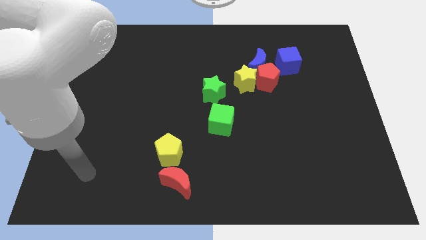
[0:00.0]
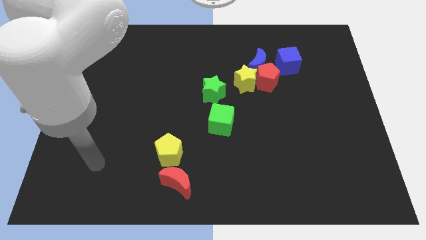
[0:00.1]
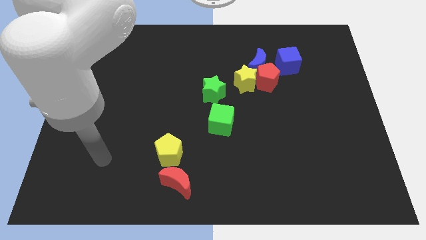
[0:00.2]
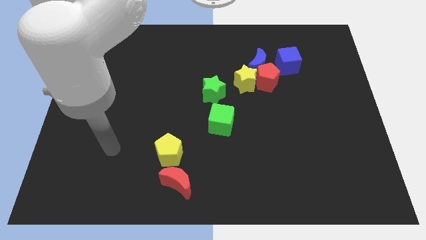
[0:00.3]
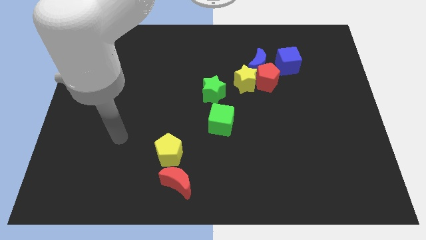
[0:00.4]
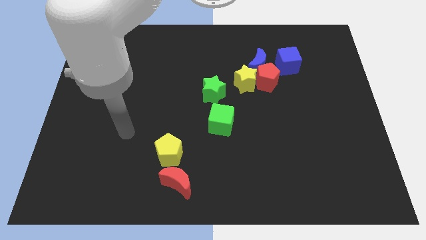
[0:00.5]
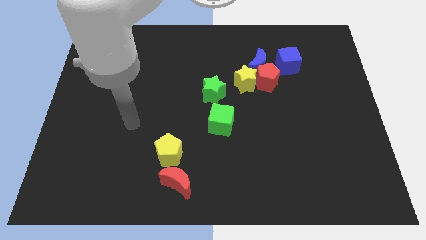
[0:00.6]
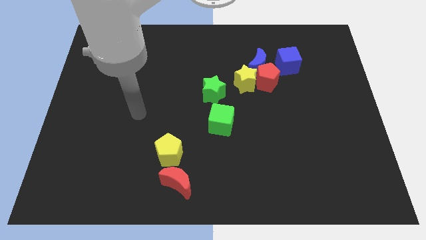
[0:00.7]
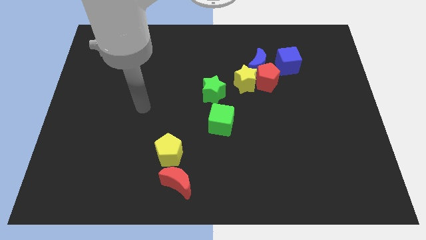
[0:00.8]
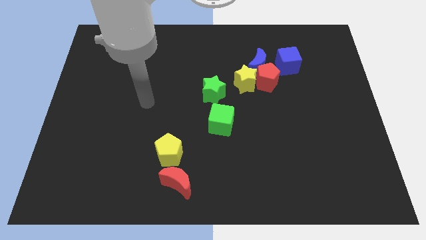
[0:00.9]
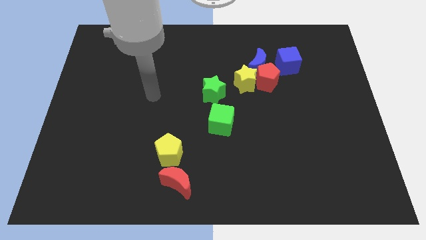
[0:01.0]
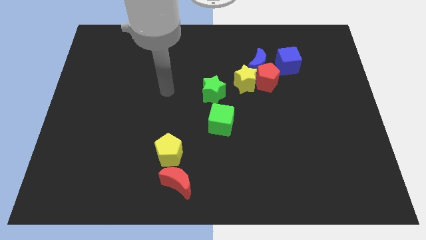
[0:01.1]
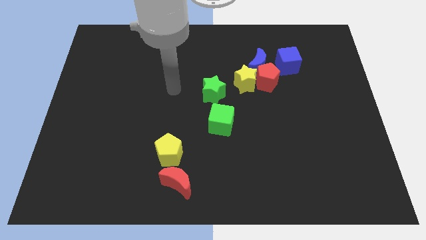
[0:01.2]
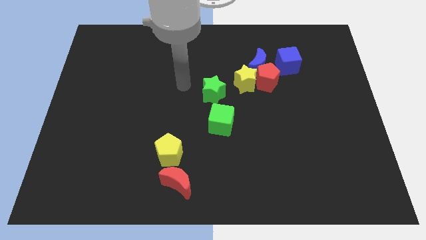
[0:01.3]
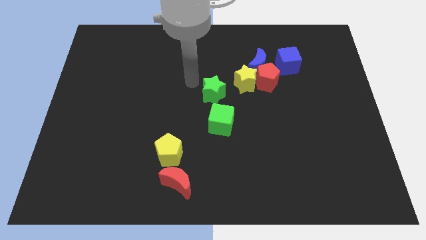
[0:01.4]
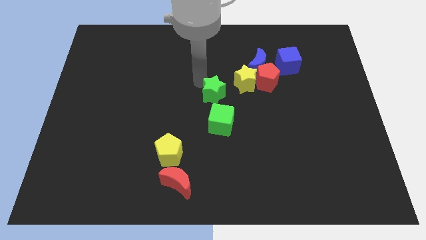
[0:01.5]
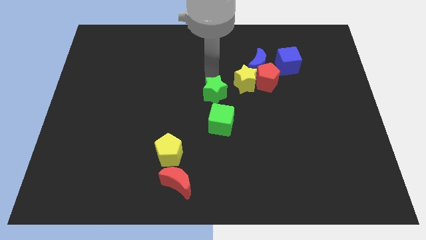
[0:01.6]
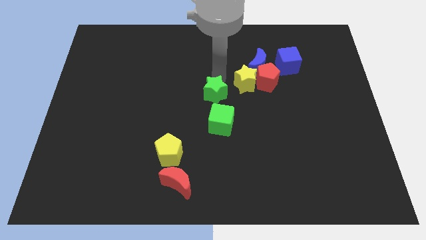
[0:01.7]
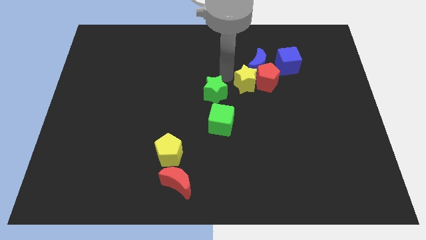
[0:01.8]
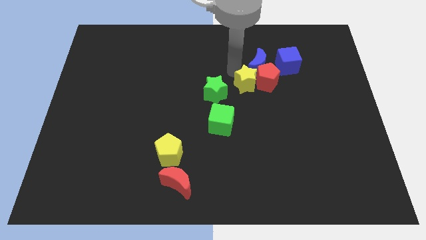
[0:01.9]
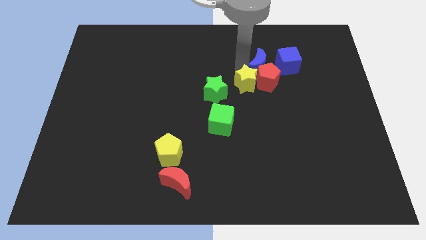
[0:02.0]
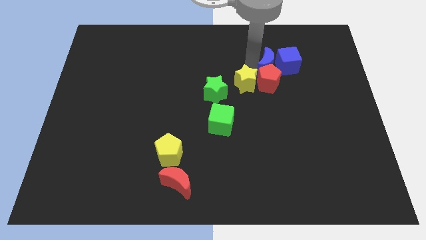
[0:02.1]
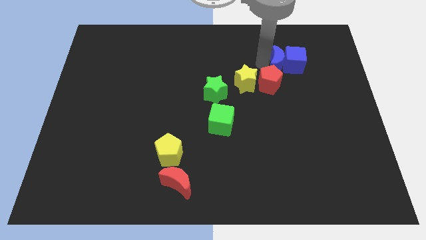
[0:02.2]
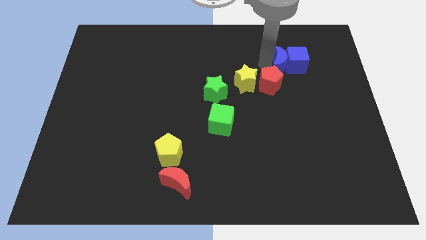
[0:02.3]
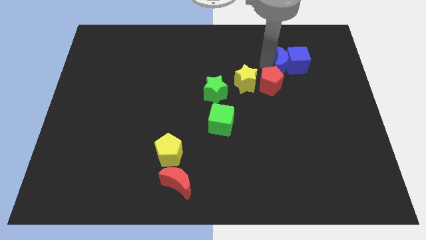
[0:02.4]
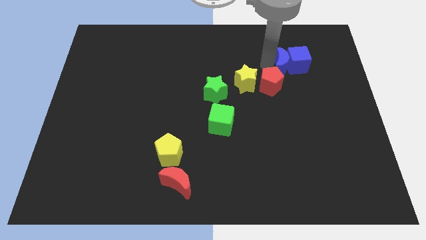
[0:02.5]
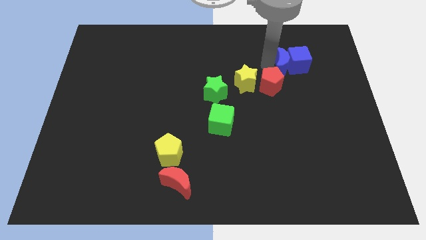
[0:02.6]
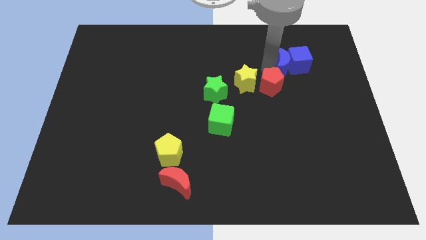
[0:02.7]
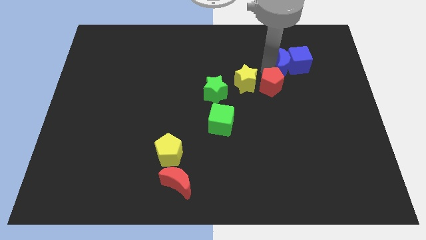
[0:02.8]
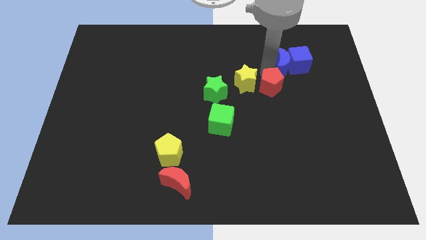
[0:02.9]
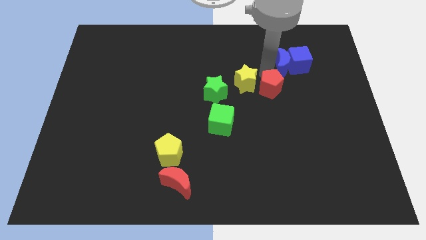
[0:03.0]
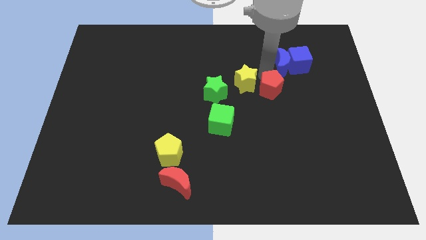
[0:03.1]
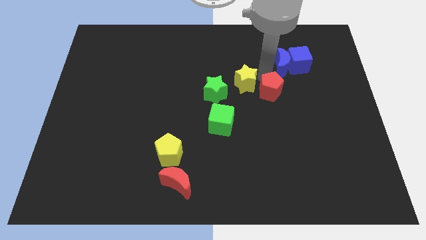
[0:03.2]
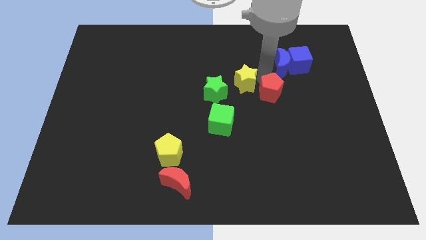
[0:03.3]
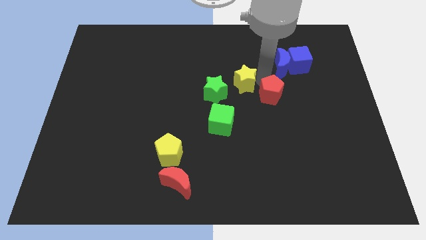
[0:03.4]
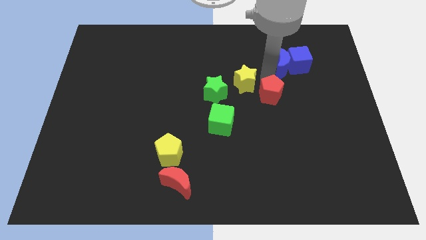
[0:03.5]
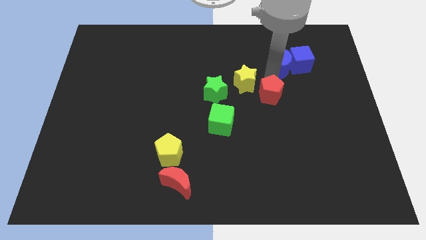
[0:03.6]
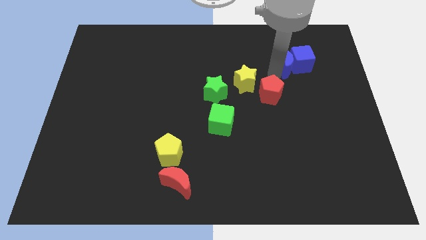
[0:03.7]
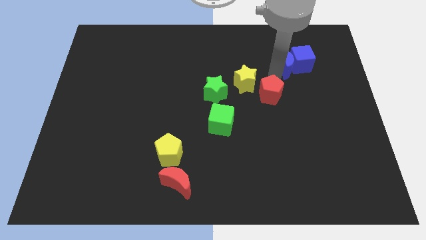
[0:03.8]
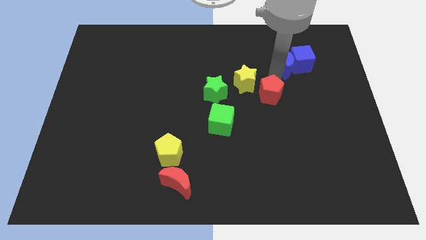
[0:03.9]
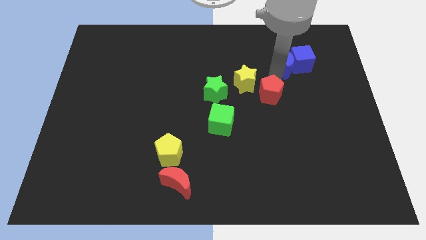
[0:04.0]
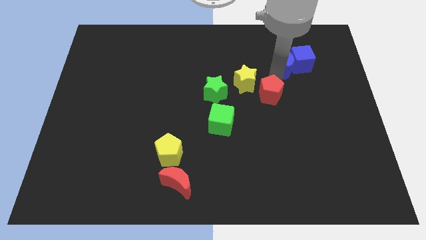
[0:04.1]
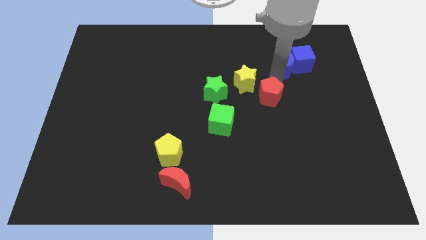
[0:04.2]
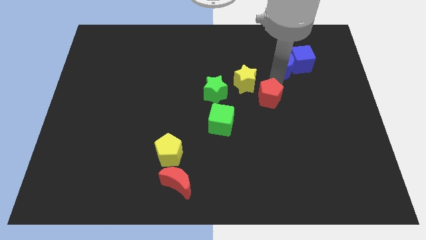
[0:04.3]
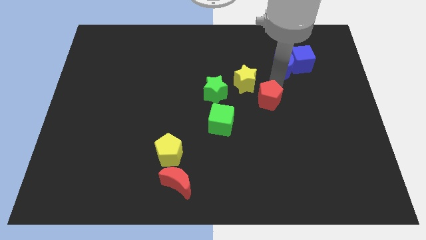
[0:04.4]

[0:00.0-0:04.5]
move the red pentagon away from the group of blocks

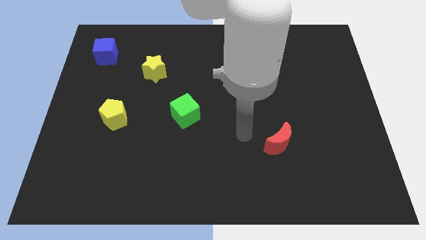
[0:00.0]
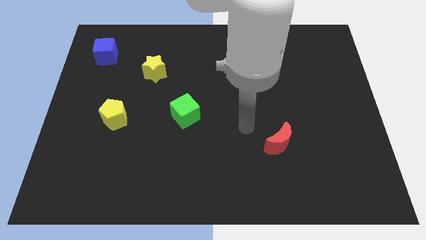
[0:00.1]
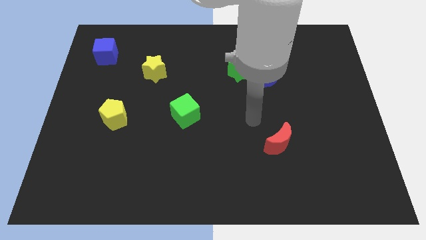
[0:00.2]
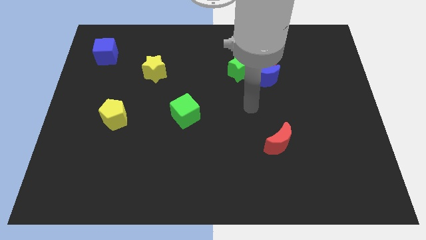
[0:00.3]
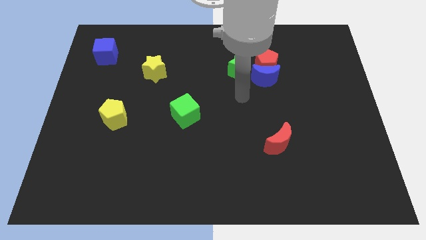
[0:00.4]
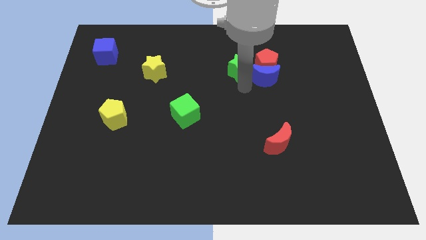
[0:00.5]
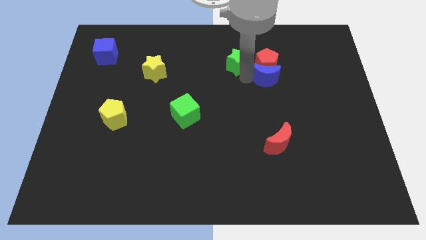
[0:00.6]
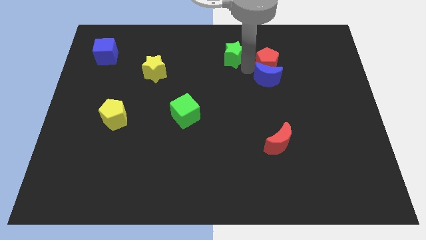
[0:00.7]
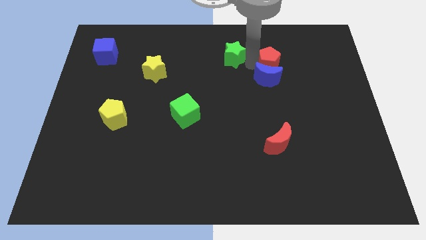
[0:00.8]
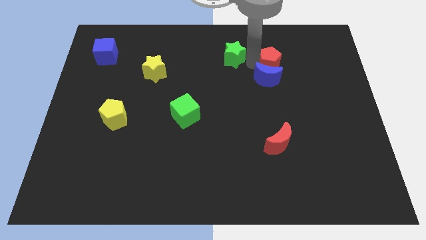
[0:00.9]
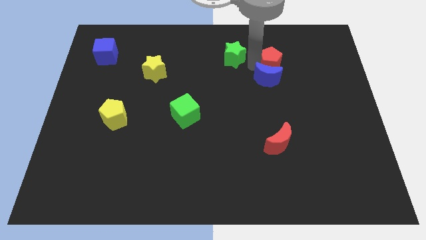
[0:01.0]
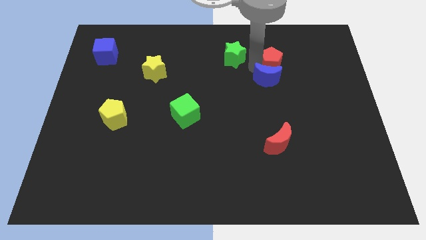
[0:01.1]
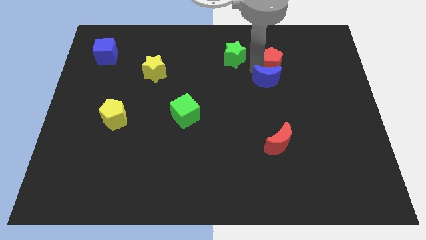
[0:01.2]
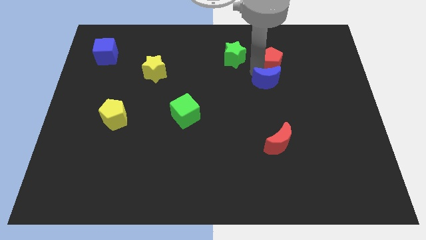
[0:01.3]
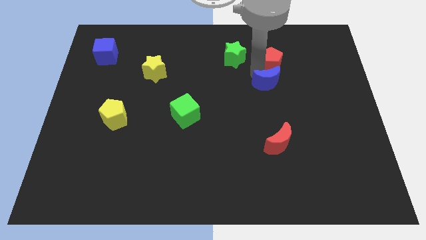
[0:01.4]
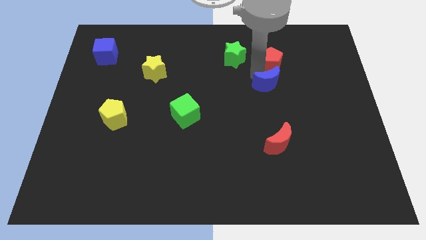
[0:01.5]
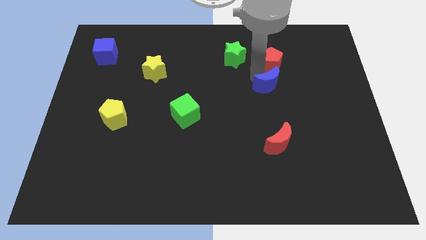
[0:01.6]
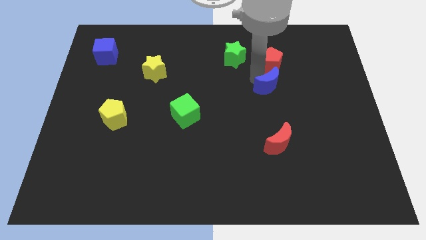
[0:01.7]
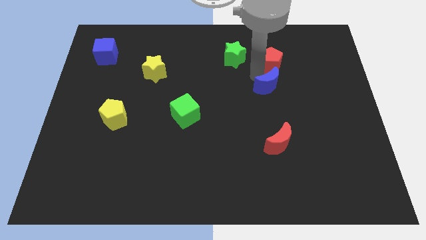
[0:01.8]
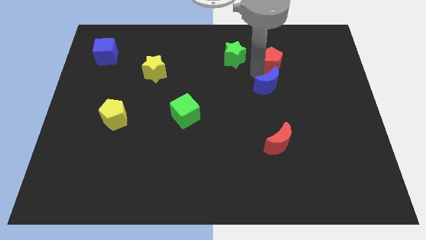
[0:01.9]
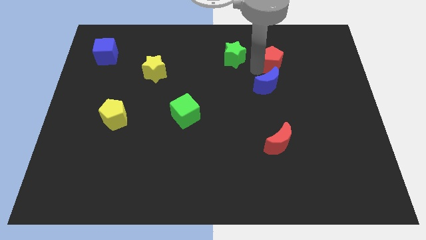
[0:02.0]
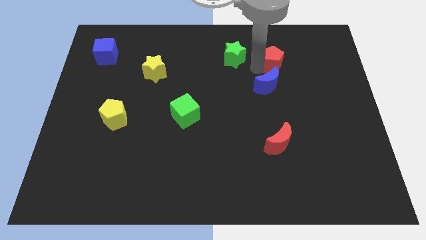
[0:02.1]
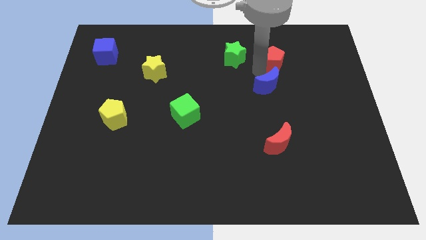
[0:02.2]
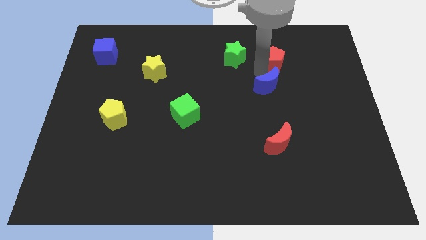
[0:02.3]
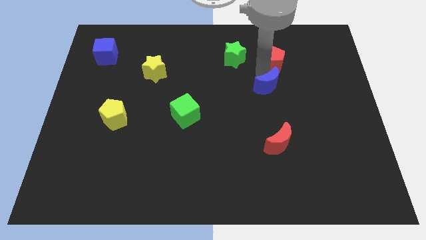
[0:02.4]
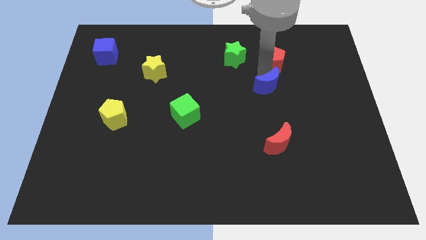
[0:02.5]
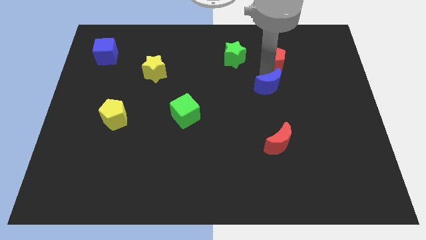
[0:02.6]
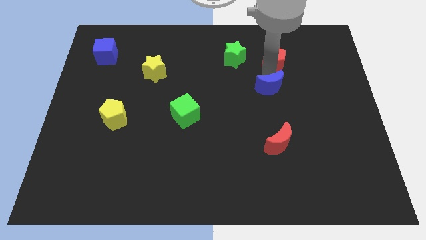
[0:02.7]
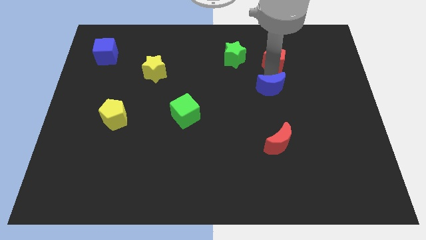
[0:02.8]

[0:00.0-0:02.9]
move the blue moon away from the red pentagon and green star

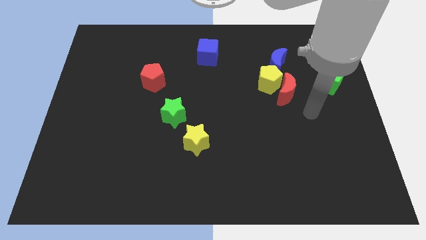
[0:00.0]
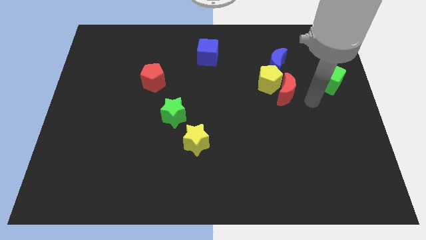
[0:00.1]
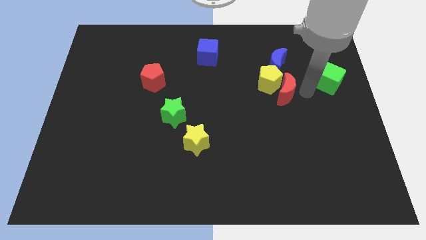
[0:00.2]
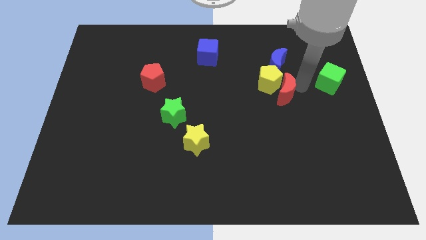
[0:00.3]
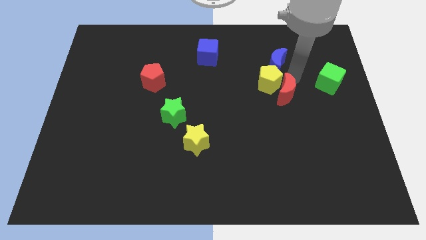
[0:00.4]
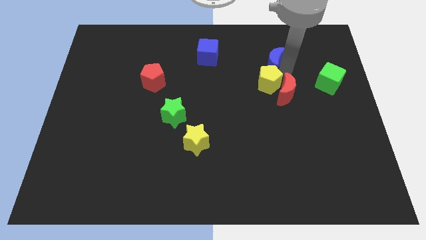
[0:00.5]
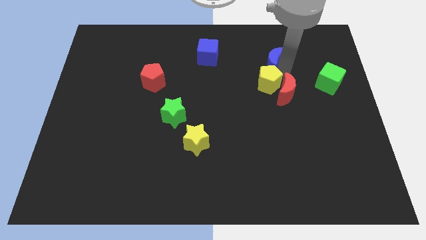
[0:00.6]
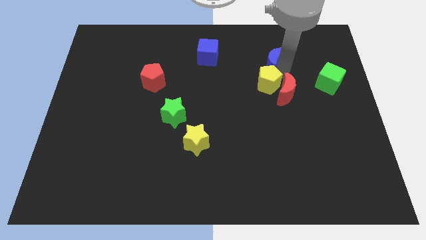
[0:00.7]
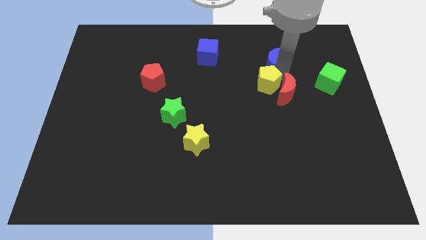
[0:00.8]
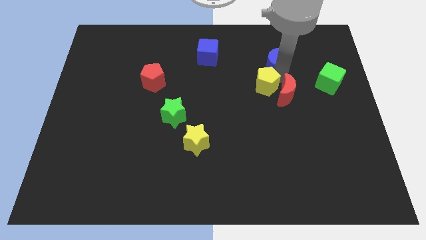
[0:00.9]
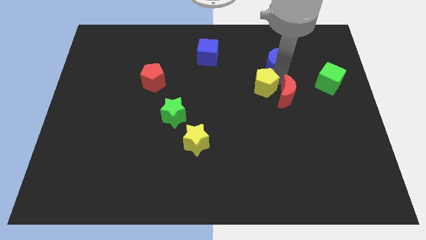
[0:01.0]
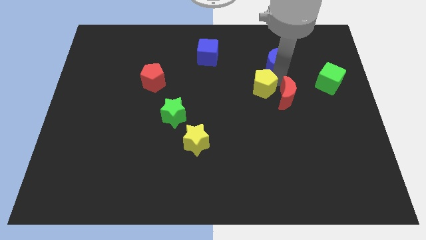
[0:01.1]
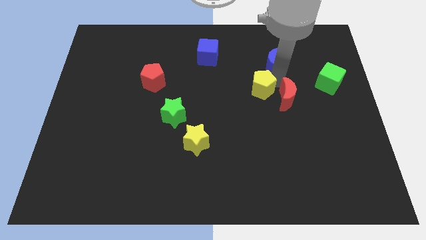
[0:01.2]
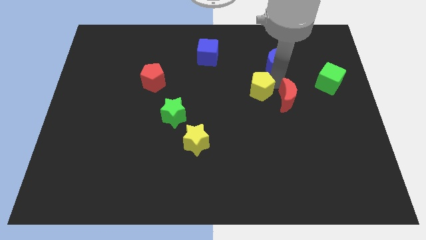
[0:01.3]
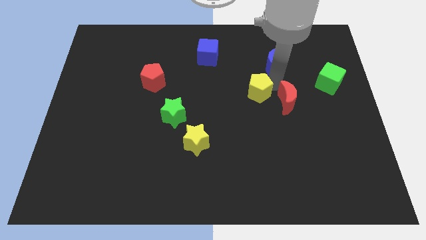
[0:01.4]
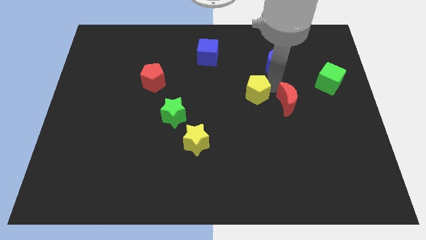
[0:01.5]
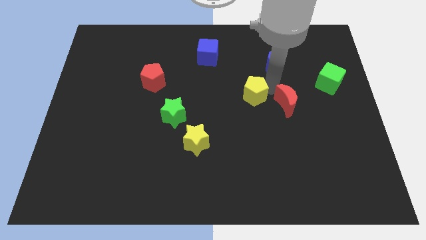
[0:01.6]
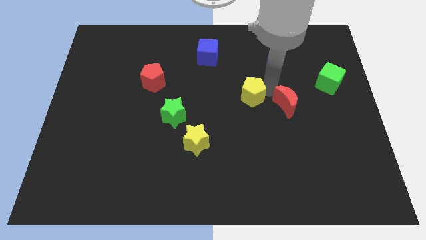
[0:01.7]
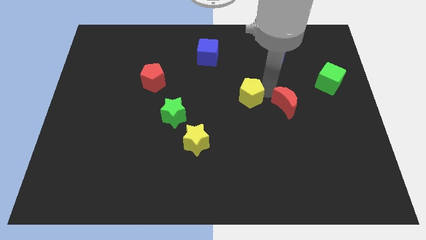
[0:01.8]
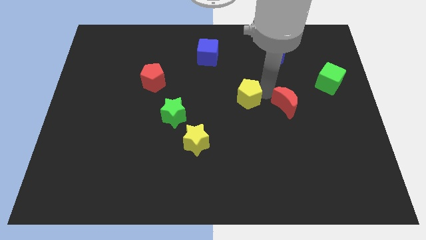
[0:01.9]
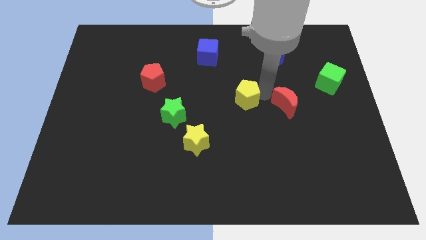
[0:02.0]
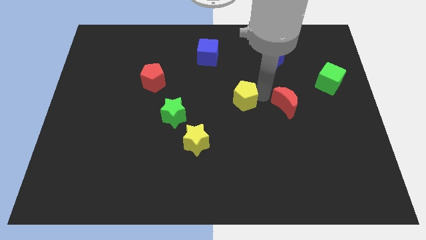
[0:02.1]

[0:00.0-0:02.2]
move the yellow pentagon away from the red moon and blue moon

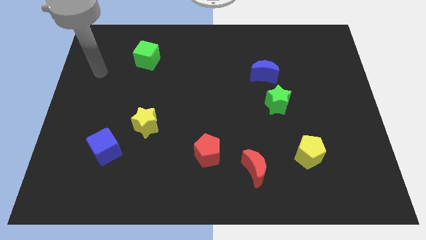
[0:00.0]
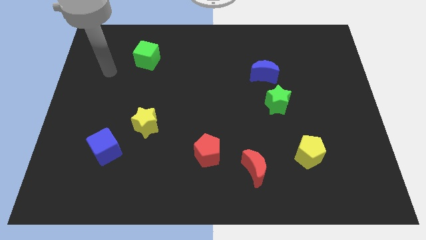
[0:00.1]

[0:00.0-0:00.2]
move the blue moon away from the green star
